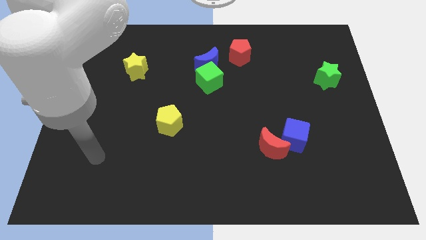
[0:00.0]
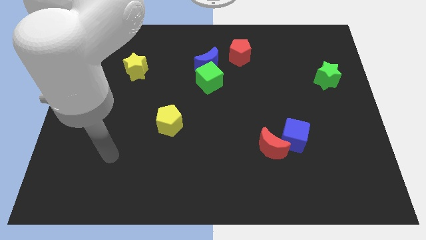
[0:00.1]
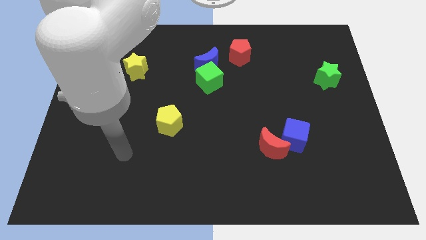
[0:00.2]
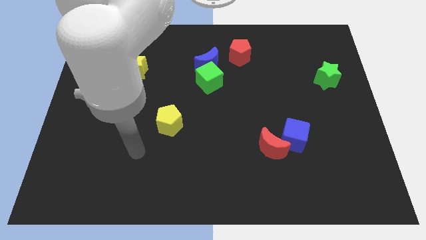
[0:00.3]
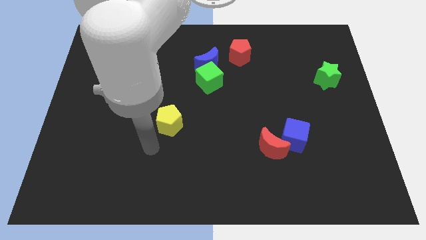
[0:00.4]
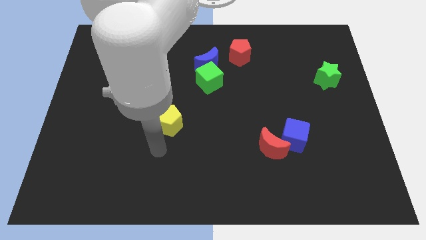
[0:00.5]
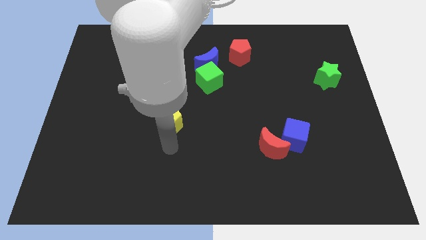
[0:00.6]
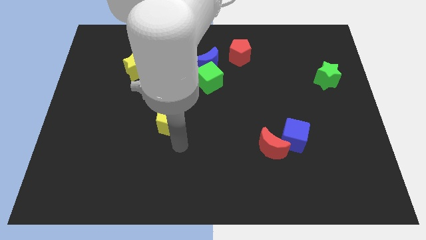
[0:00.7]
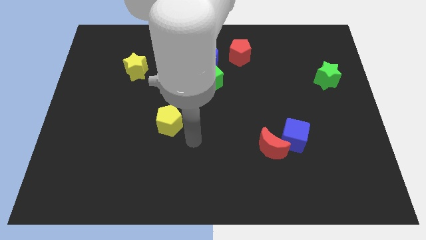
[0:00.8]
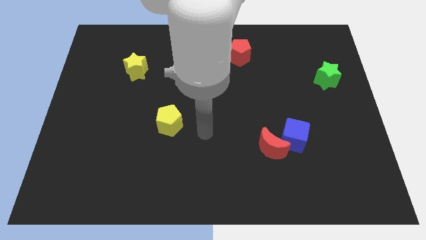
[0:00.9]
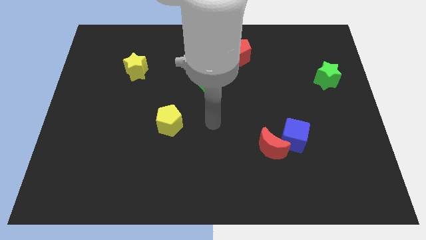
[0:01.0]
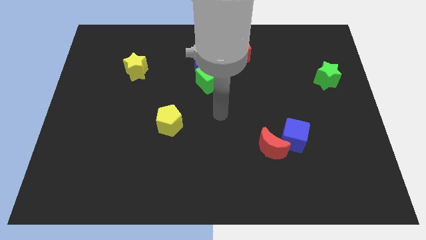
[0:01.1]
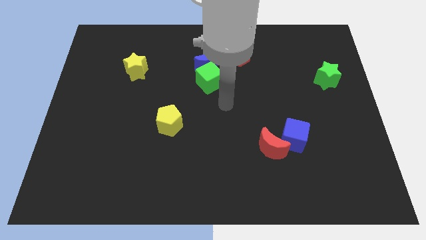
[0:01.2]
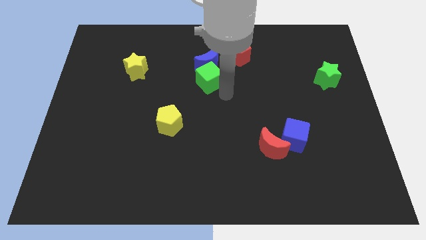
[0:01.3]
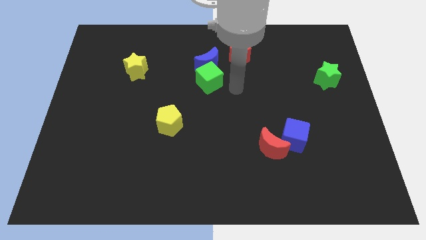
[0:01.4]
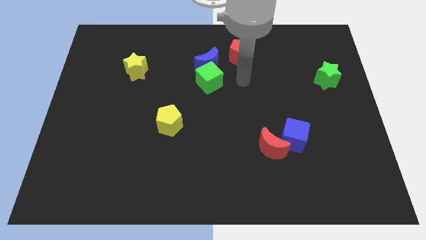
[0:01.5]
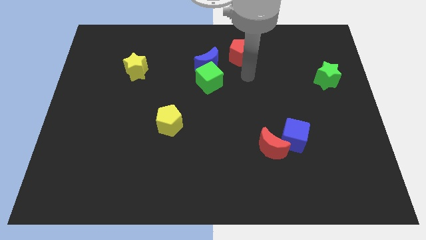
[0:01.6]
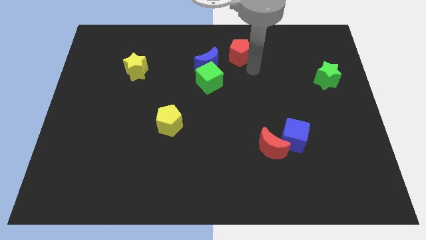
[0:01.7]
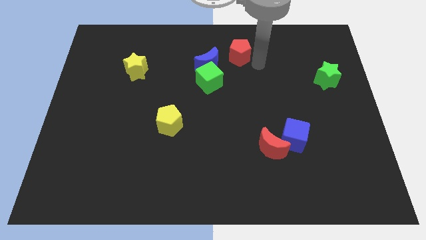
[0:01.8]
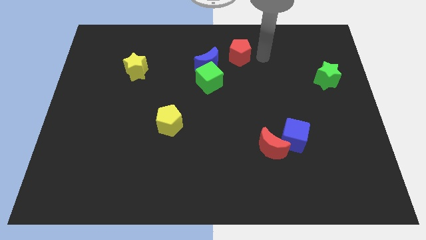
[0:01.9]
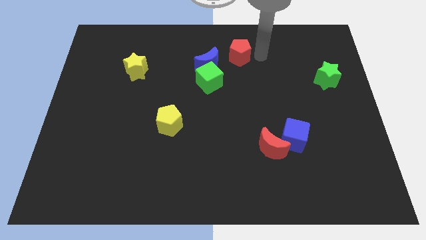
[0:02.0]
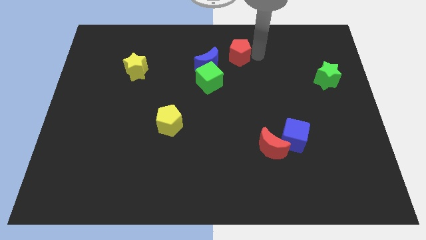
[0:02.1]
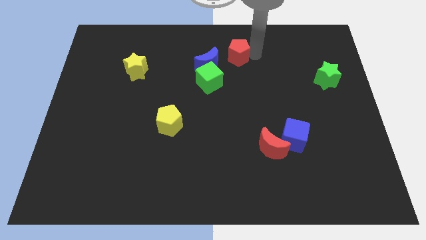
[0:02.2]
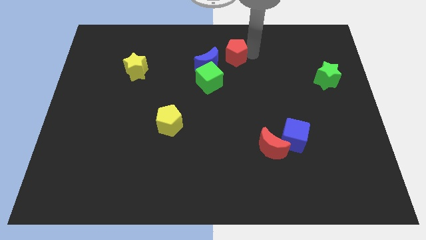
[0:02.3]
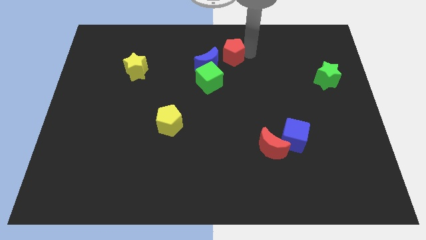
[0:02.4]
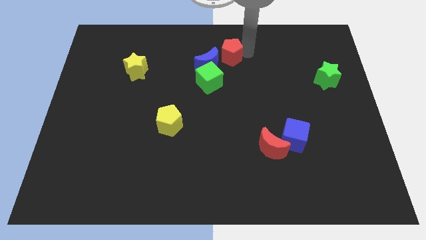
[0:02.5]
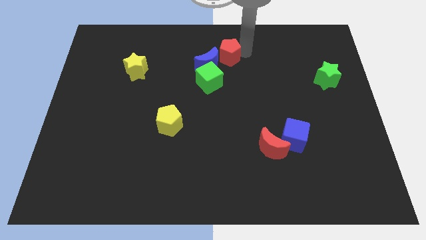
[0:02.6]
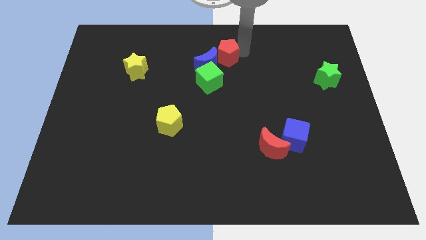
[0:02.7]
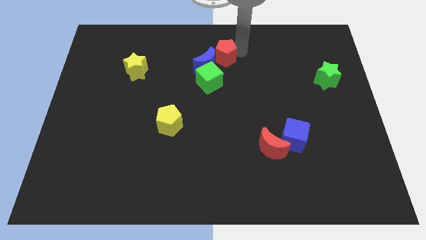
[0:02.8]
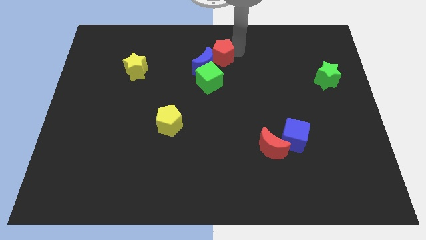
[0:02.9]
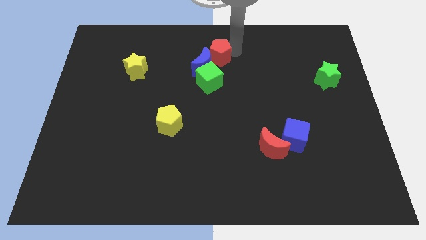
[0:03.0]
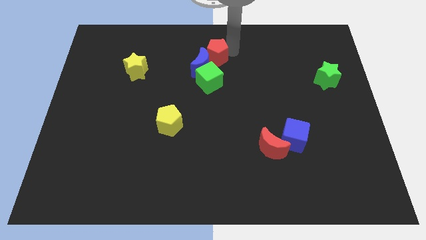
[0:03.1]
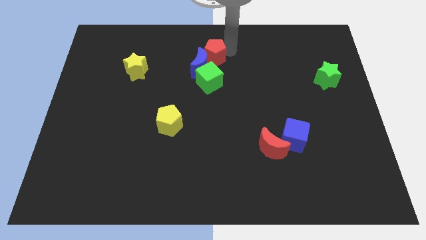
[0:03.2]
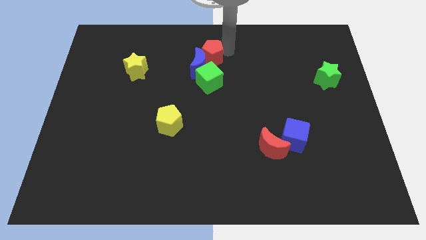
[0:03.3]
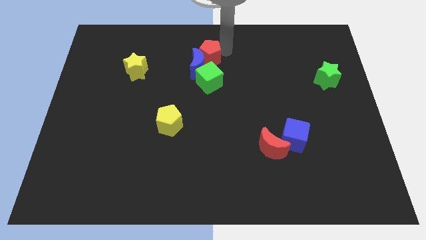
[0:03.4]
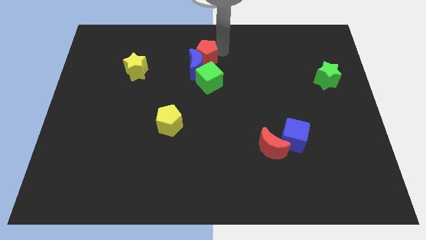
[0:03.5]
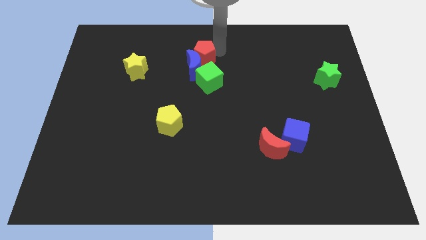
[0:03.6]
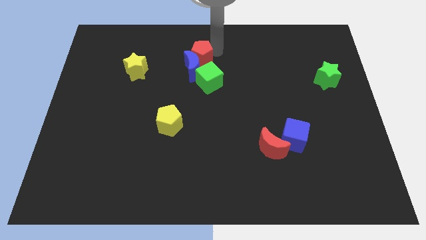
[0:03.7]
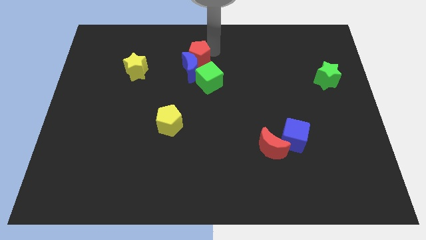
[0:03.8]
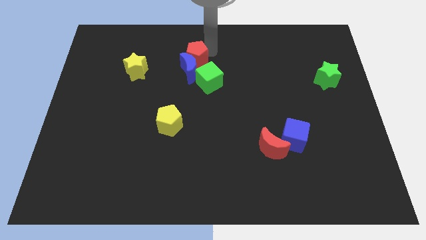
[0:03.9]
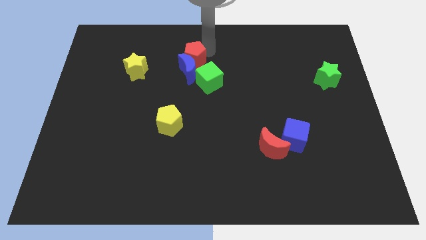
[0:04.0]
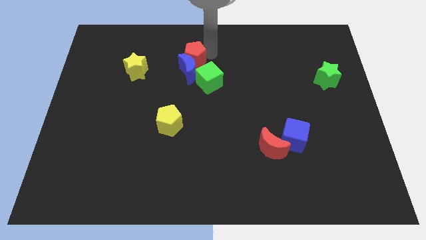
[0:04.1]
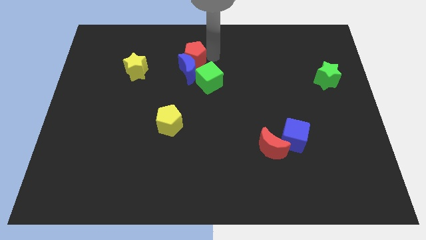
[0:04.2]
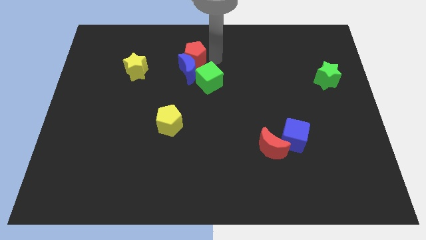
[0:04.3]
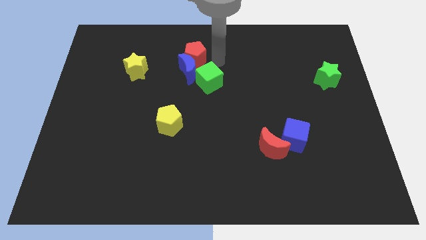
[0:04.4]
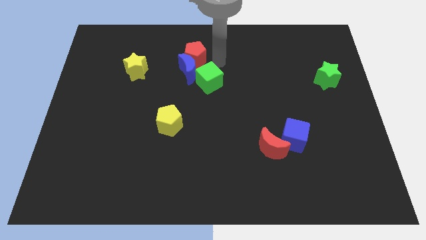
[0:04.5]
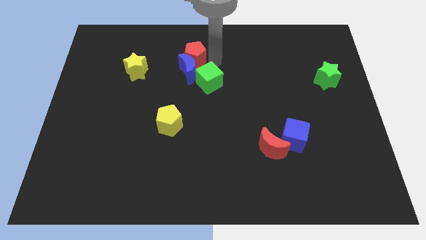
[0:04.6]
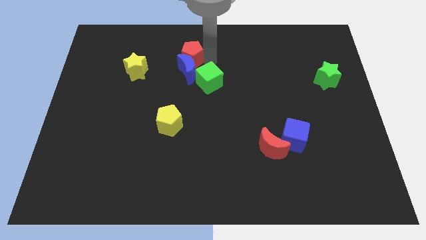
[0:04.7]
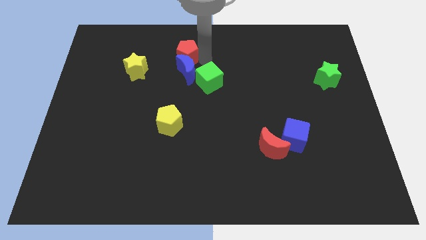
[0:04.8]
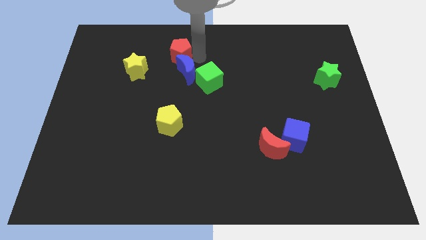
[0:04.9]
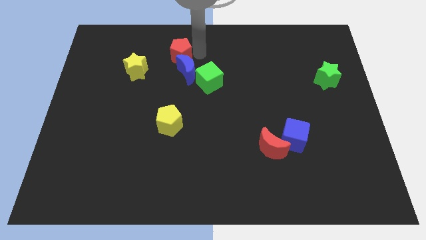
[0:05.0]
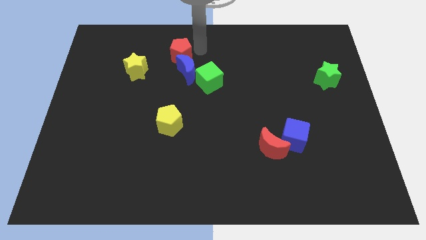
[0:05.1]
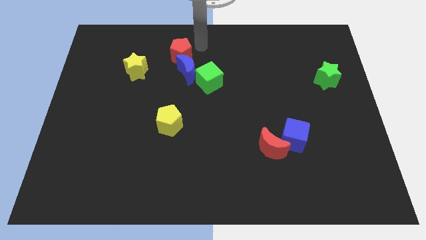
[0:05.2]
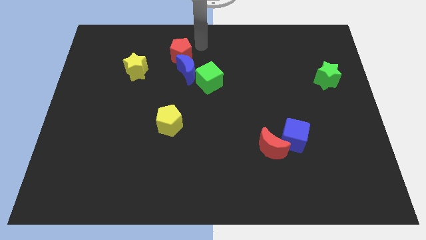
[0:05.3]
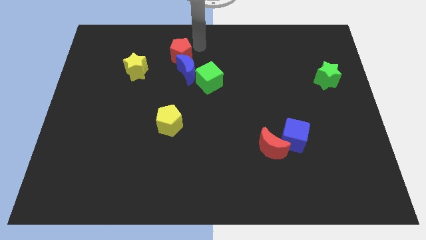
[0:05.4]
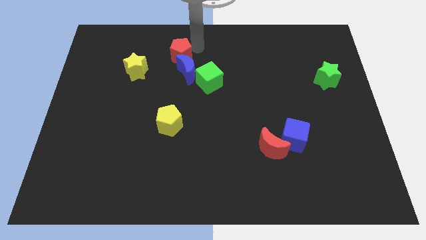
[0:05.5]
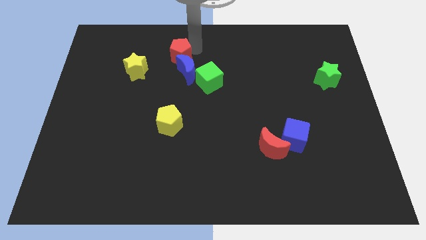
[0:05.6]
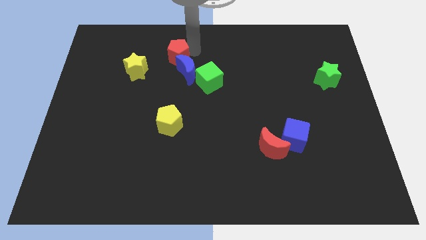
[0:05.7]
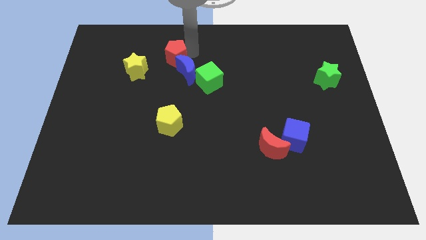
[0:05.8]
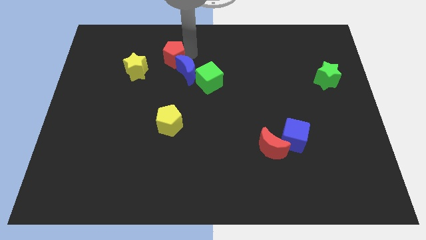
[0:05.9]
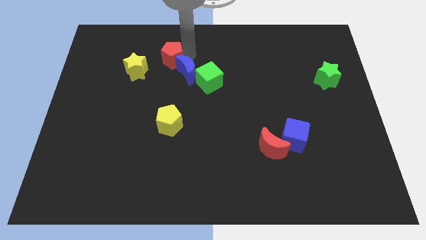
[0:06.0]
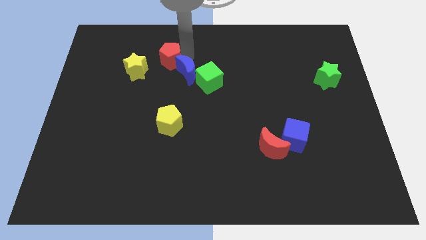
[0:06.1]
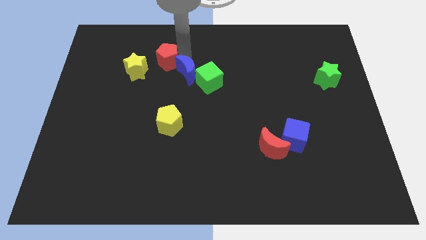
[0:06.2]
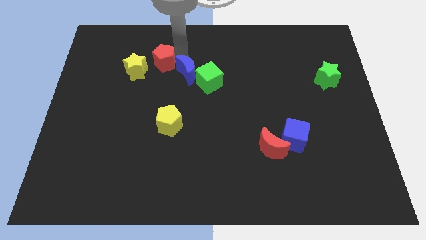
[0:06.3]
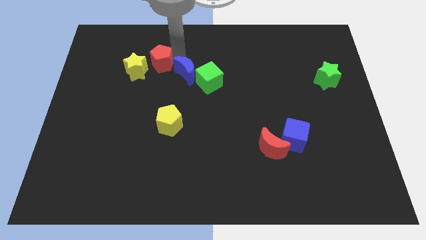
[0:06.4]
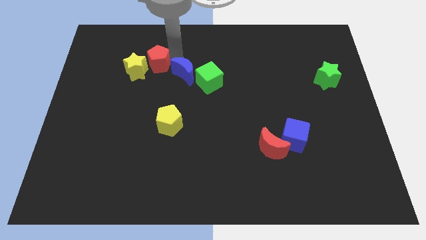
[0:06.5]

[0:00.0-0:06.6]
move the red pentagon next to the yellow star
